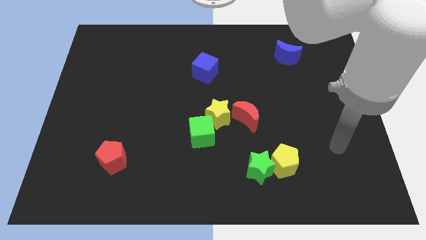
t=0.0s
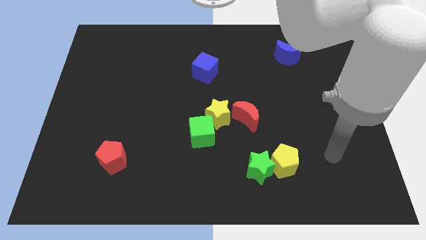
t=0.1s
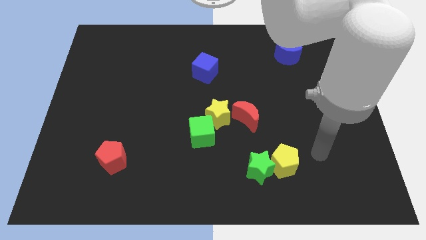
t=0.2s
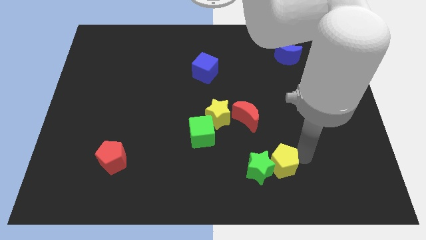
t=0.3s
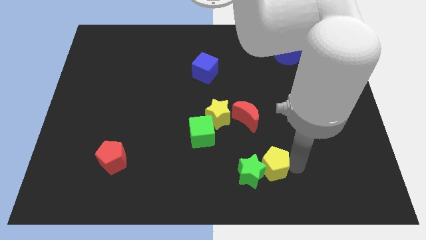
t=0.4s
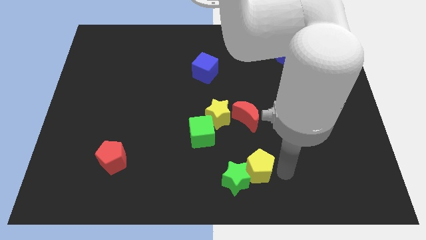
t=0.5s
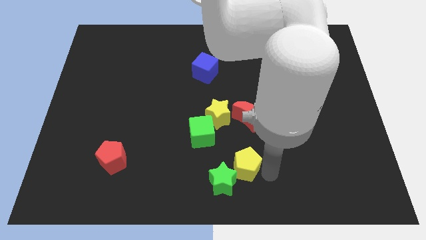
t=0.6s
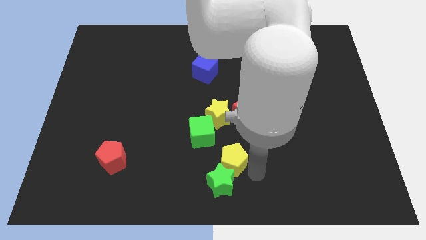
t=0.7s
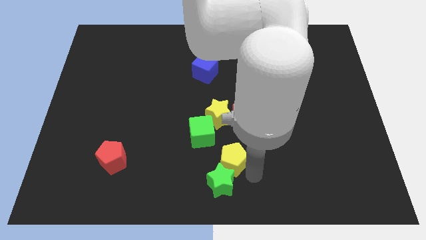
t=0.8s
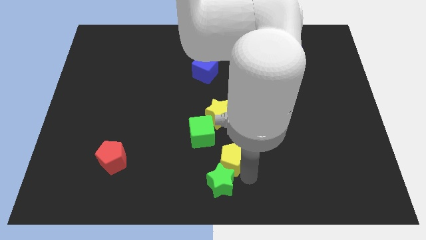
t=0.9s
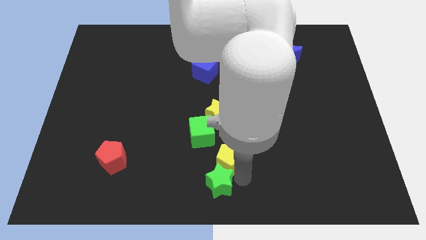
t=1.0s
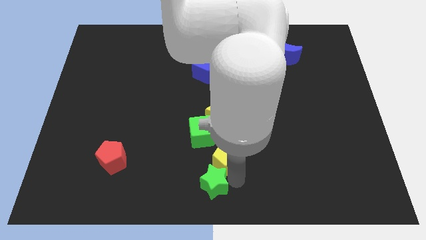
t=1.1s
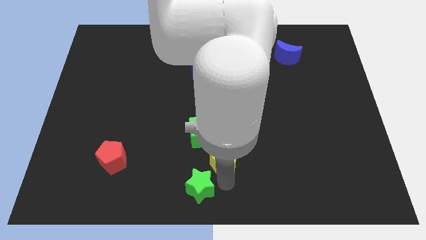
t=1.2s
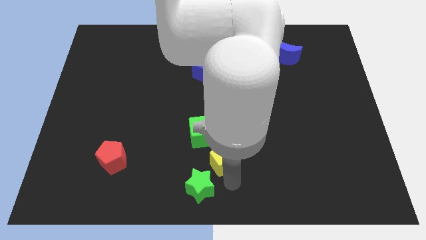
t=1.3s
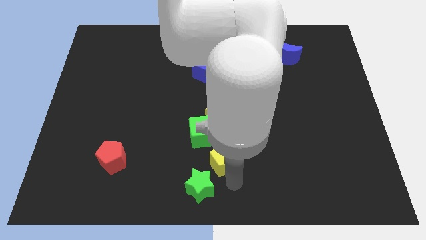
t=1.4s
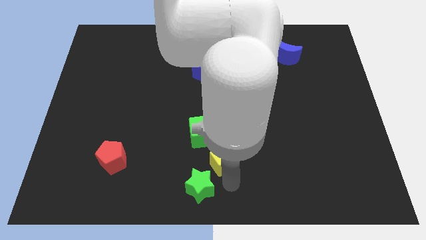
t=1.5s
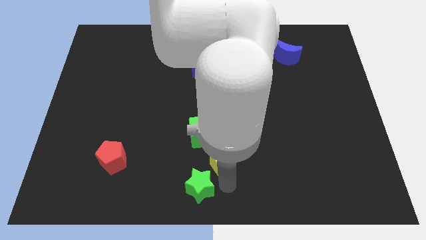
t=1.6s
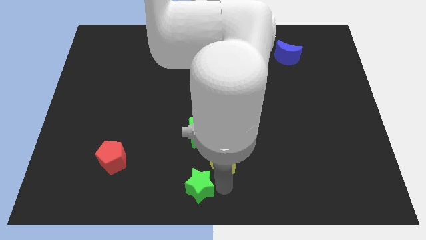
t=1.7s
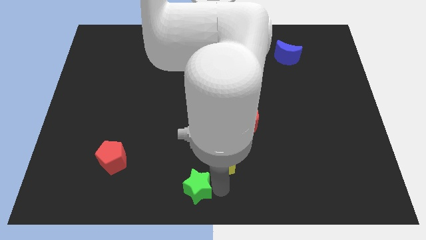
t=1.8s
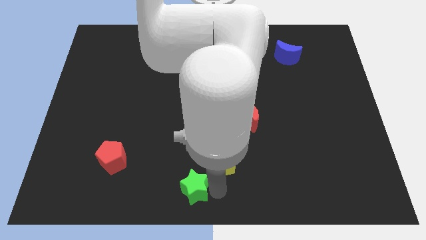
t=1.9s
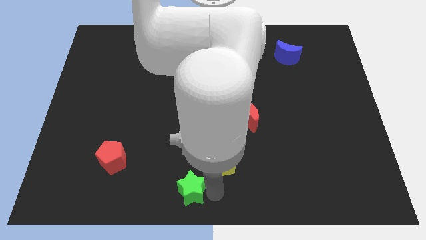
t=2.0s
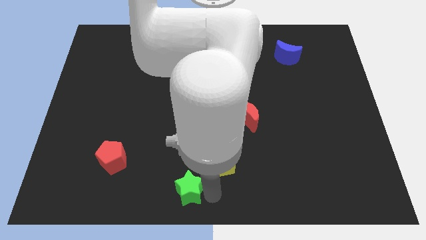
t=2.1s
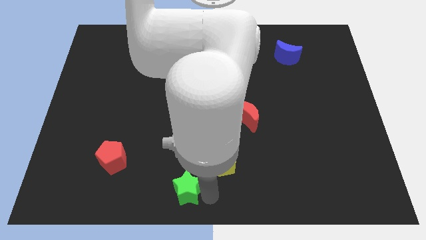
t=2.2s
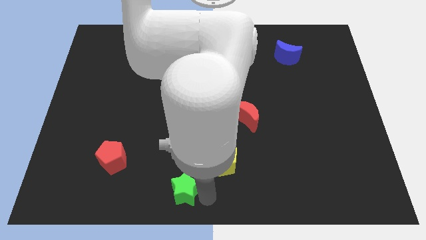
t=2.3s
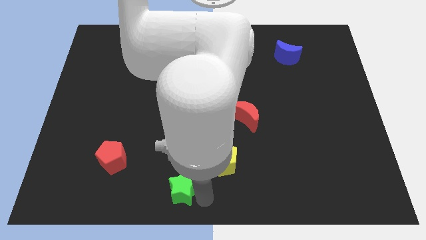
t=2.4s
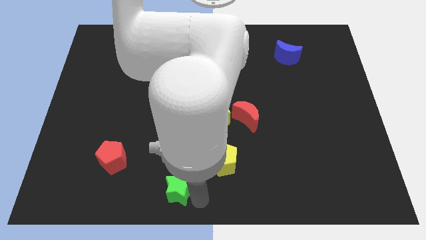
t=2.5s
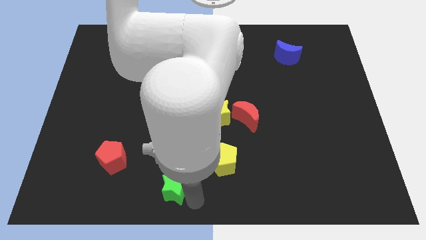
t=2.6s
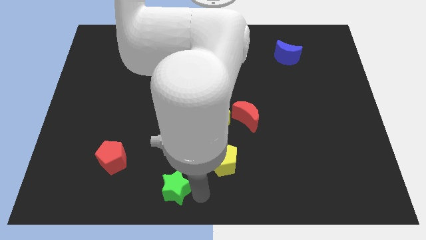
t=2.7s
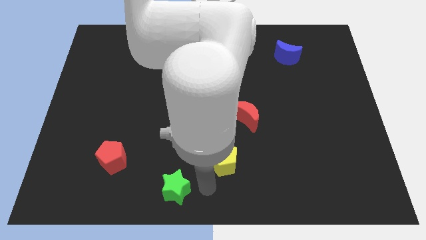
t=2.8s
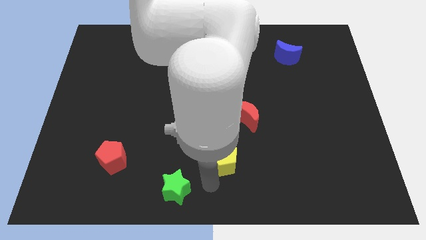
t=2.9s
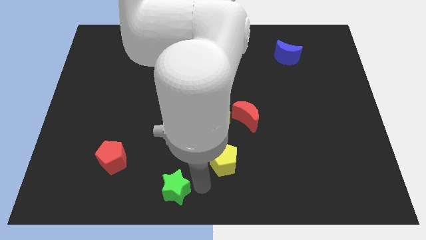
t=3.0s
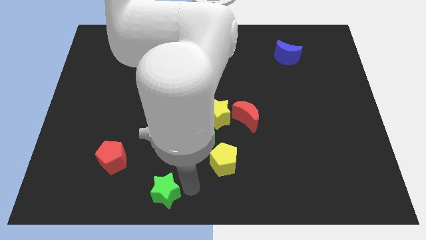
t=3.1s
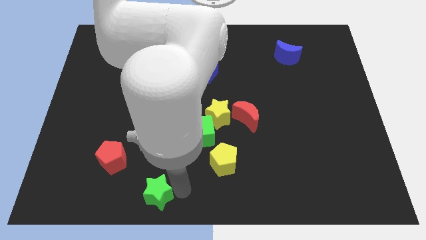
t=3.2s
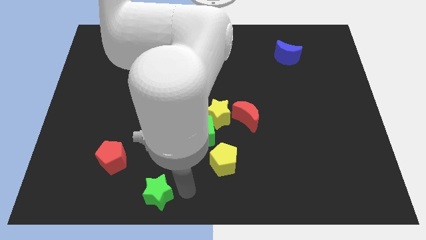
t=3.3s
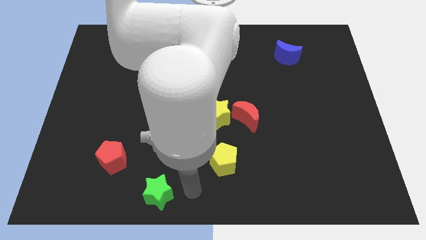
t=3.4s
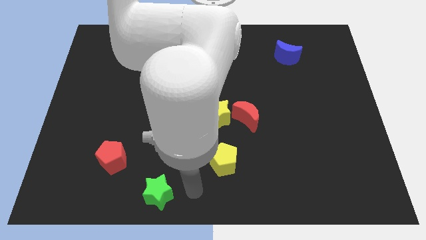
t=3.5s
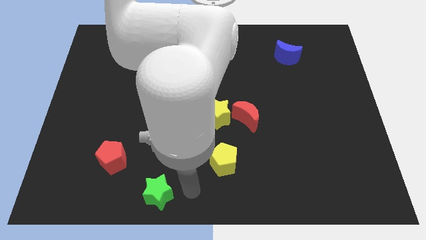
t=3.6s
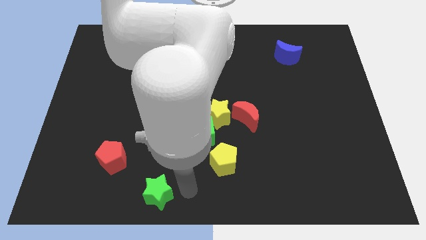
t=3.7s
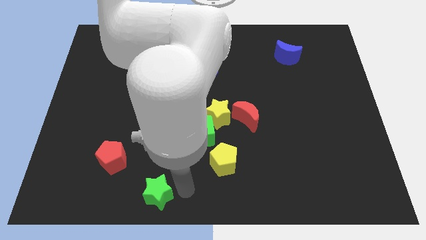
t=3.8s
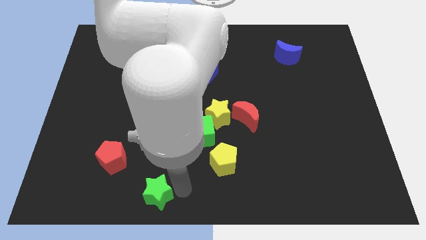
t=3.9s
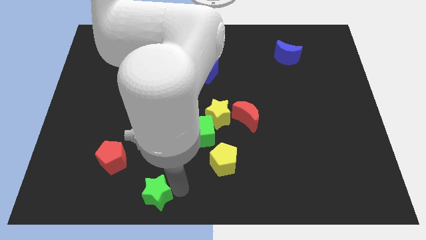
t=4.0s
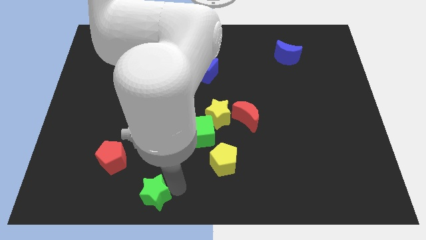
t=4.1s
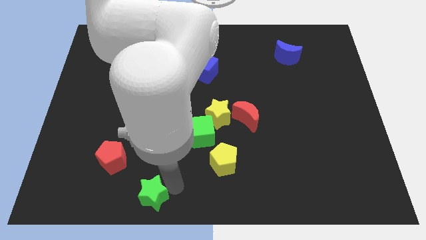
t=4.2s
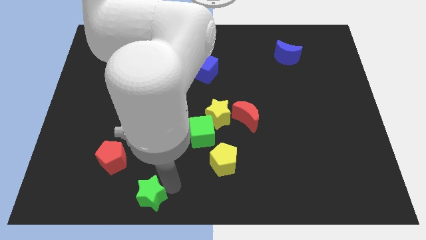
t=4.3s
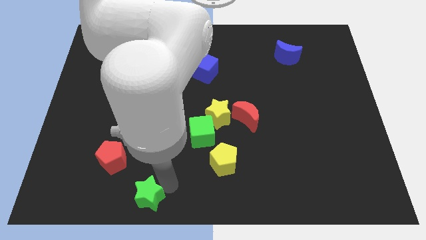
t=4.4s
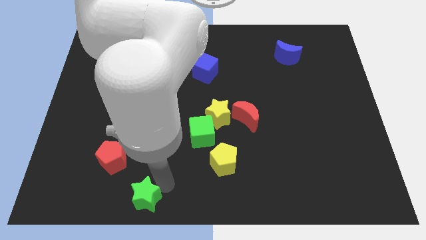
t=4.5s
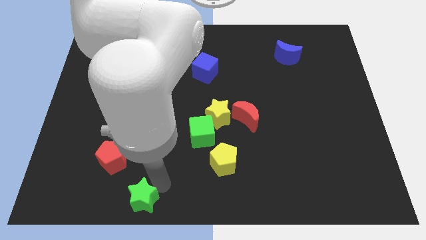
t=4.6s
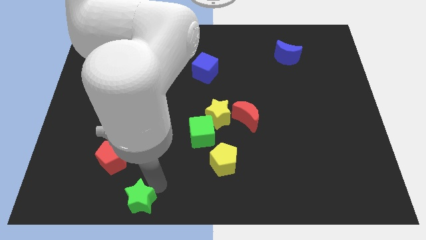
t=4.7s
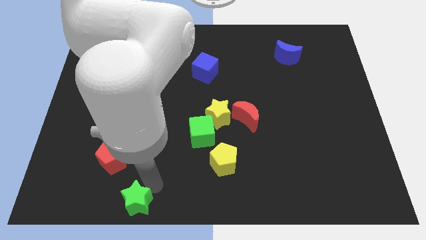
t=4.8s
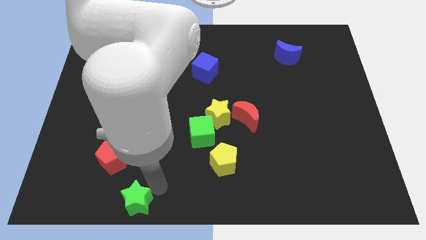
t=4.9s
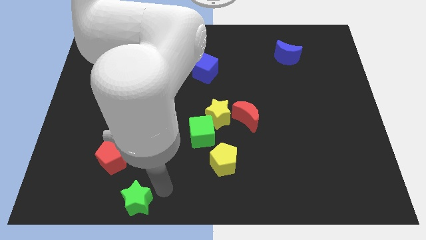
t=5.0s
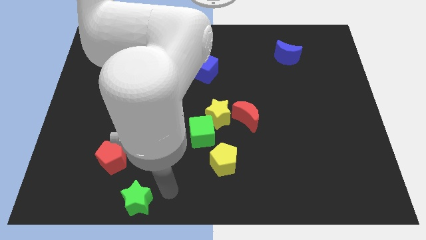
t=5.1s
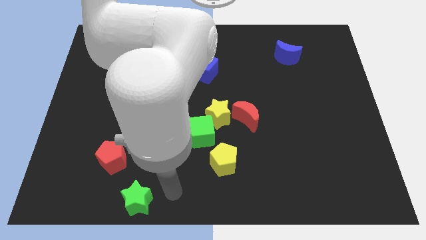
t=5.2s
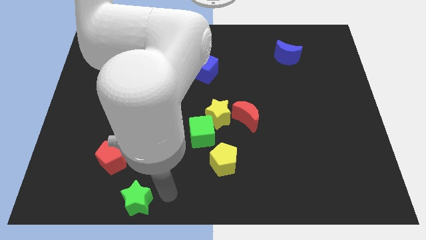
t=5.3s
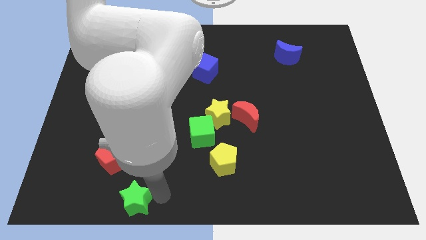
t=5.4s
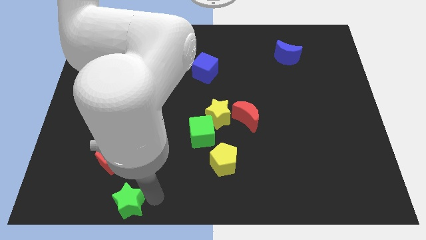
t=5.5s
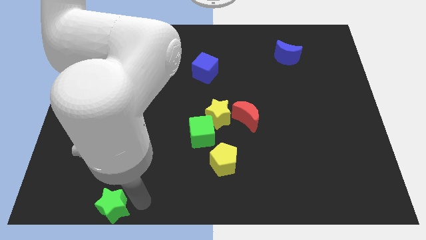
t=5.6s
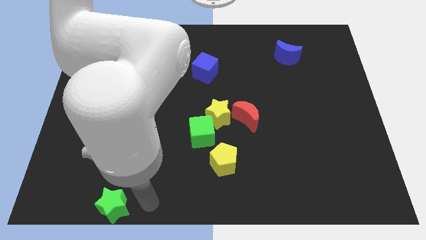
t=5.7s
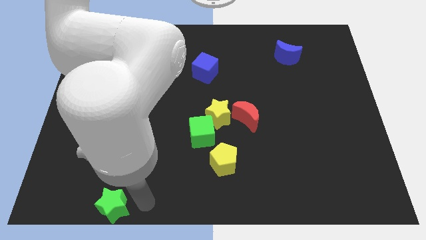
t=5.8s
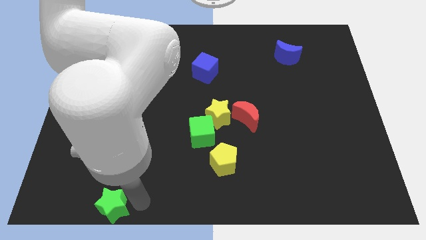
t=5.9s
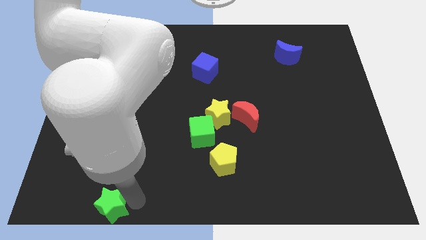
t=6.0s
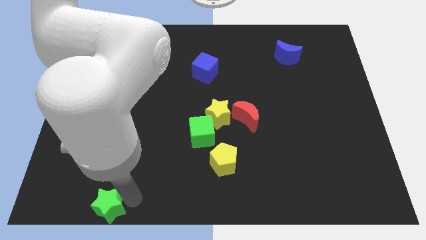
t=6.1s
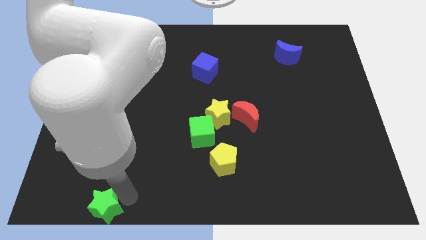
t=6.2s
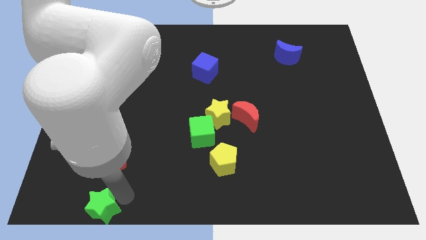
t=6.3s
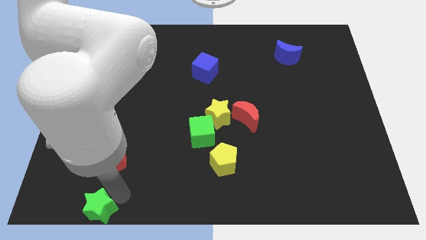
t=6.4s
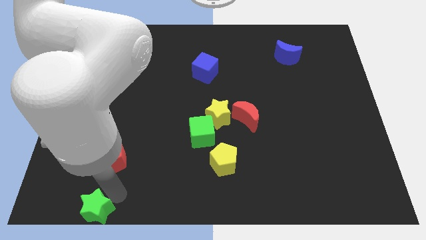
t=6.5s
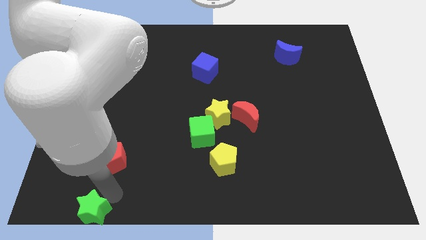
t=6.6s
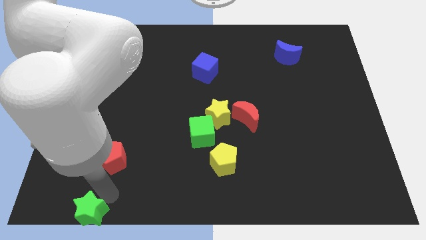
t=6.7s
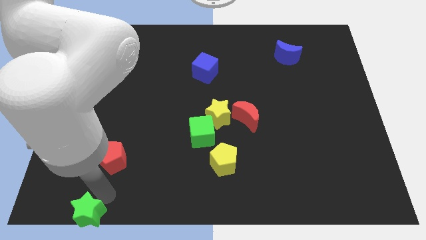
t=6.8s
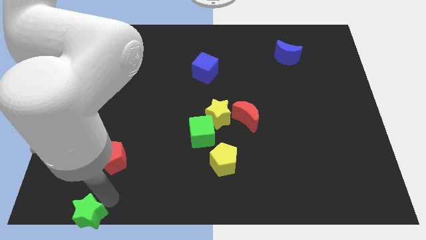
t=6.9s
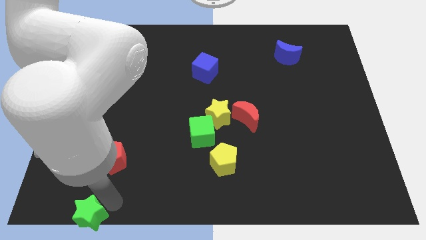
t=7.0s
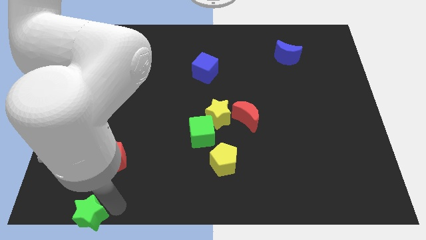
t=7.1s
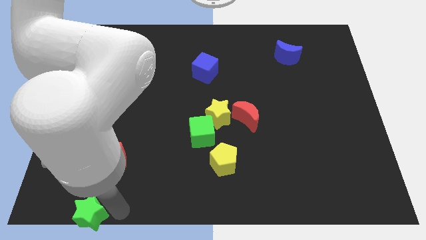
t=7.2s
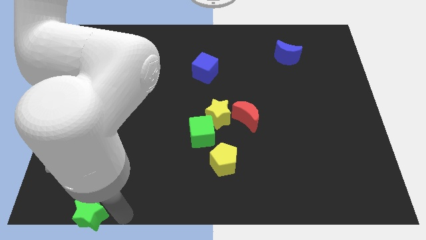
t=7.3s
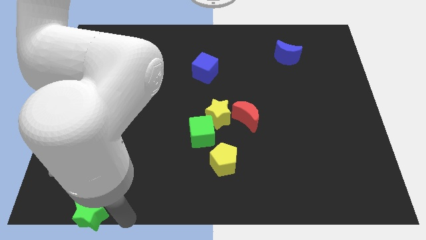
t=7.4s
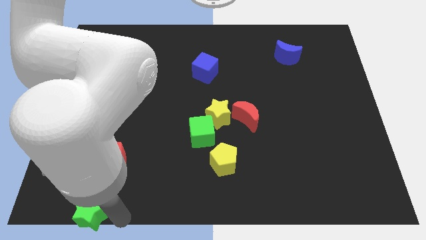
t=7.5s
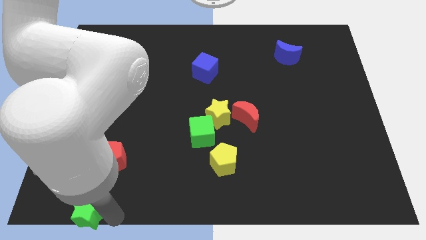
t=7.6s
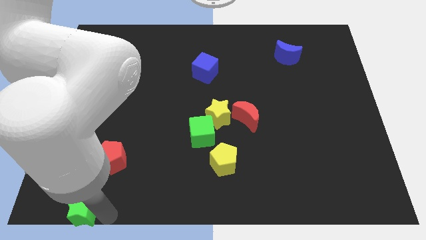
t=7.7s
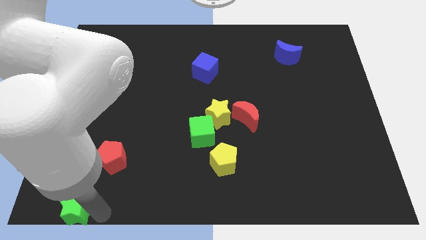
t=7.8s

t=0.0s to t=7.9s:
move the green star to the bottom left of the board

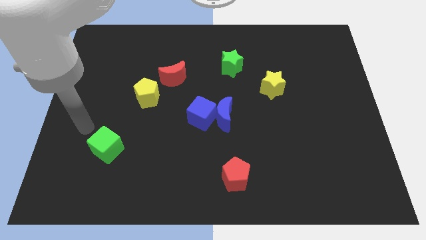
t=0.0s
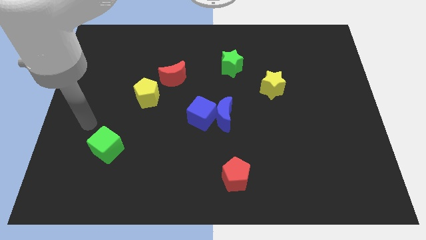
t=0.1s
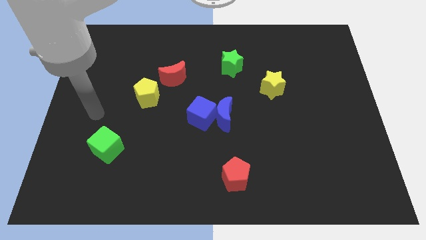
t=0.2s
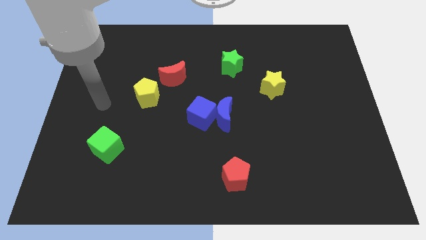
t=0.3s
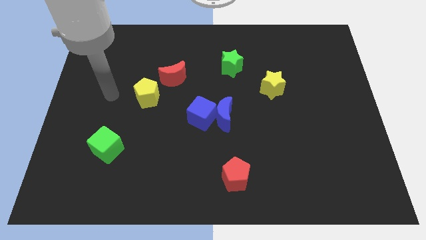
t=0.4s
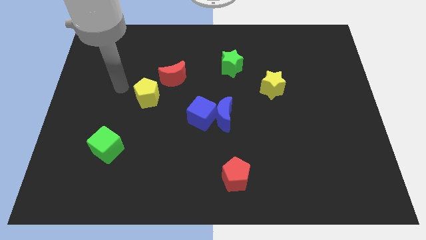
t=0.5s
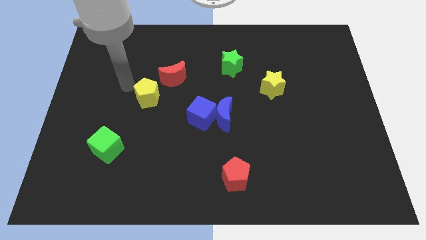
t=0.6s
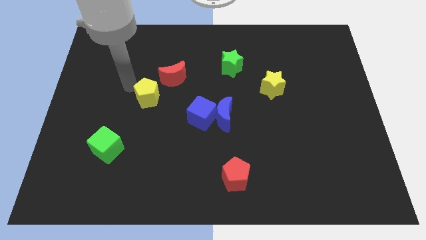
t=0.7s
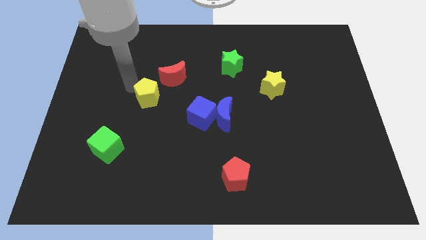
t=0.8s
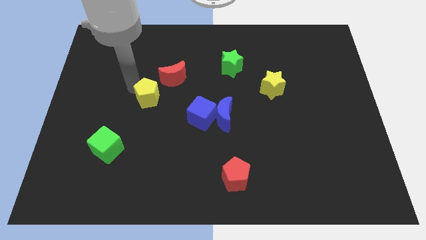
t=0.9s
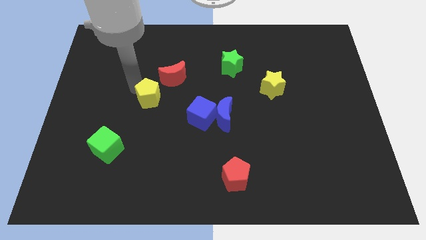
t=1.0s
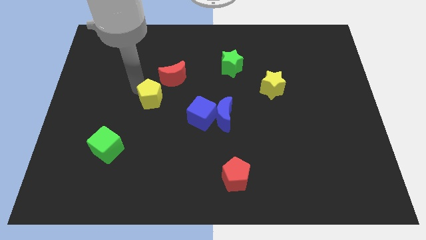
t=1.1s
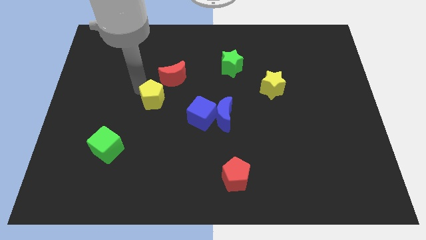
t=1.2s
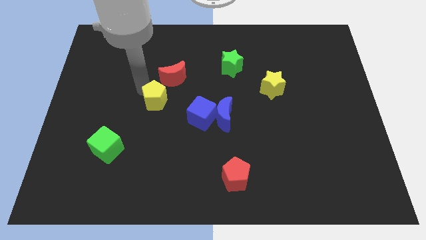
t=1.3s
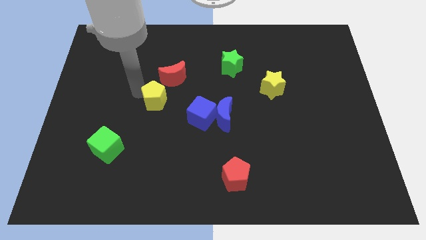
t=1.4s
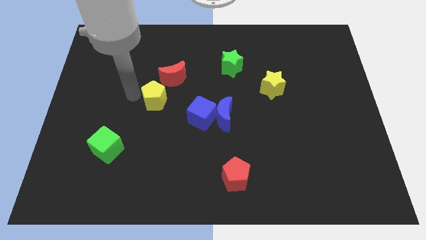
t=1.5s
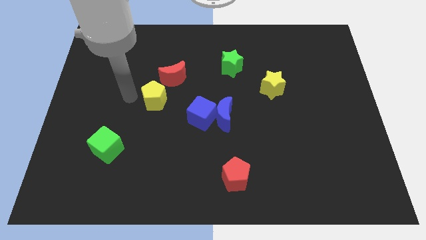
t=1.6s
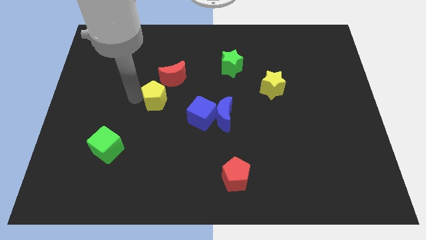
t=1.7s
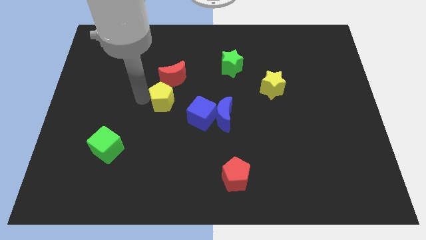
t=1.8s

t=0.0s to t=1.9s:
slide the yellow pentagon to the center of the board
